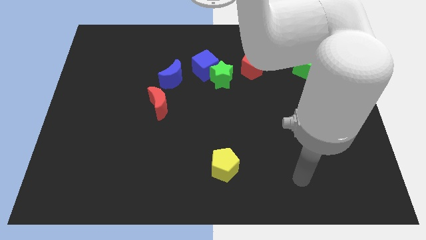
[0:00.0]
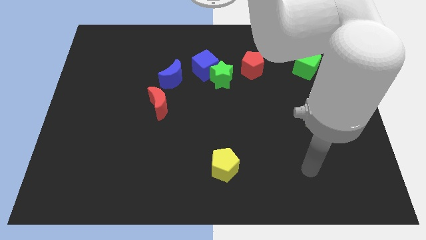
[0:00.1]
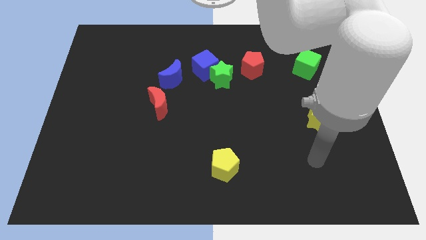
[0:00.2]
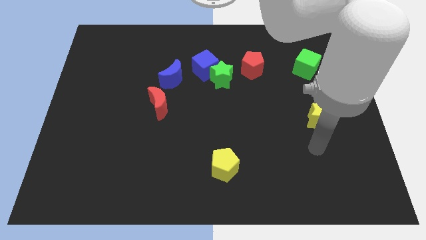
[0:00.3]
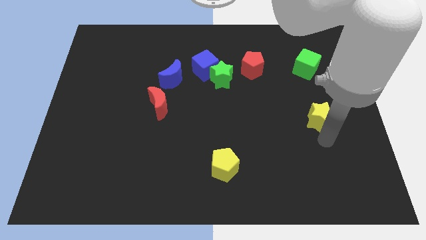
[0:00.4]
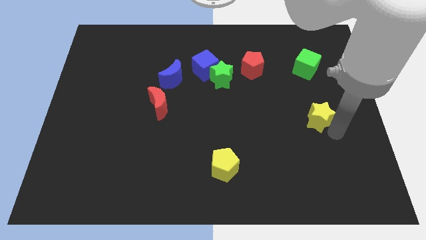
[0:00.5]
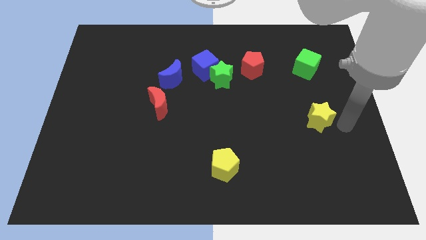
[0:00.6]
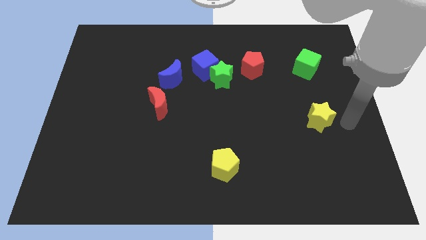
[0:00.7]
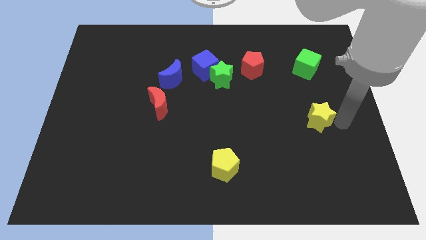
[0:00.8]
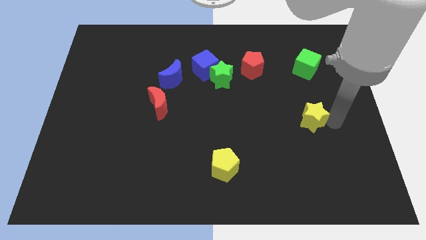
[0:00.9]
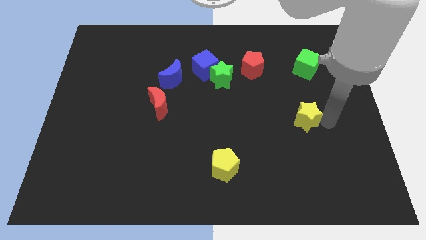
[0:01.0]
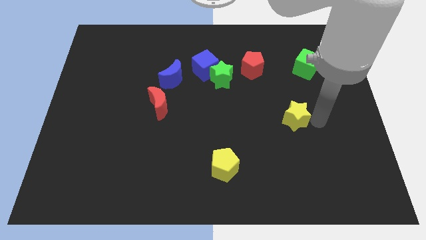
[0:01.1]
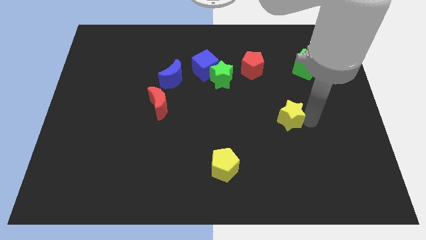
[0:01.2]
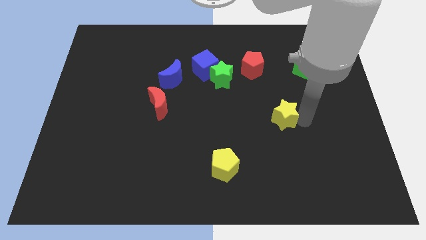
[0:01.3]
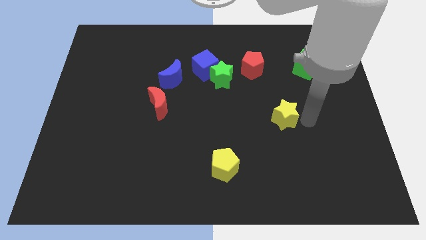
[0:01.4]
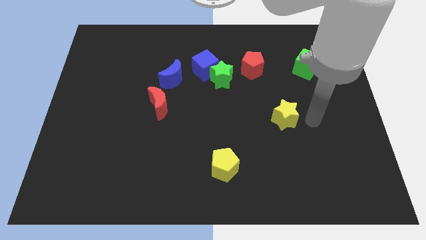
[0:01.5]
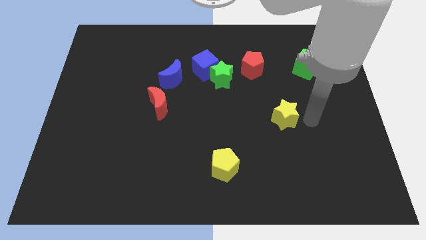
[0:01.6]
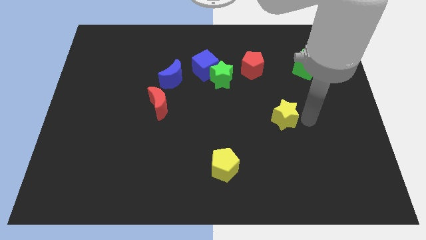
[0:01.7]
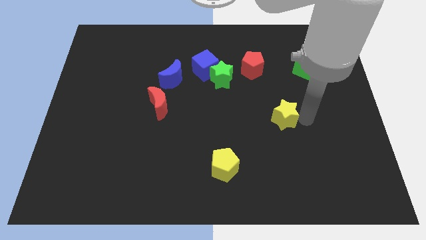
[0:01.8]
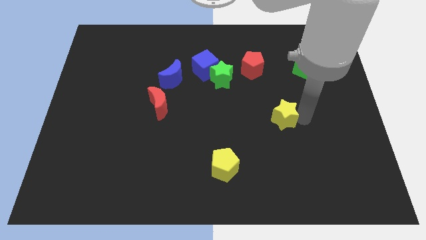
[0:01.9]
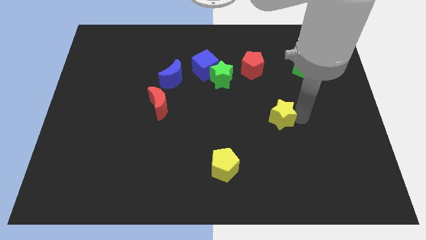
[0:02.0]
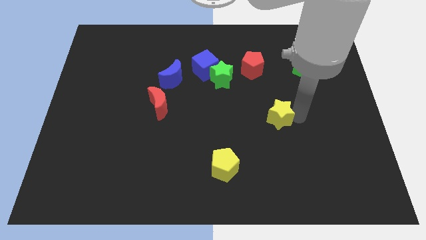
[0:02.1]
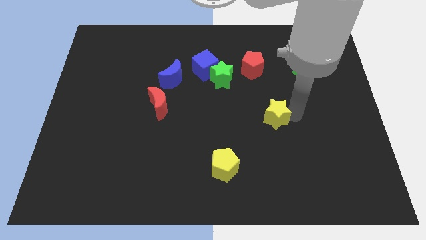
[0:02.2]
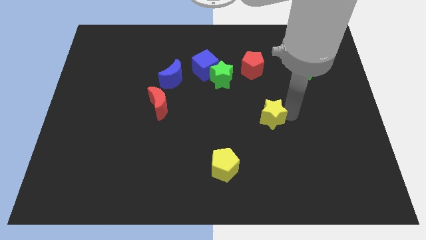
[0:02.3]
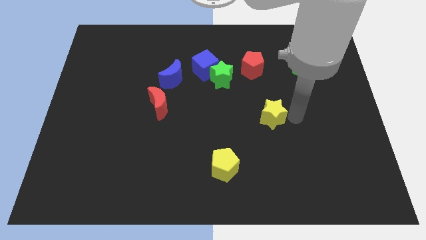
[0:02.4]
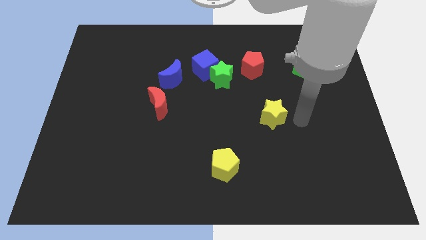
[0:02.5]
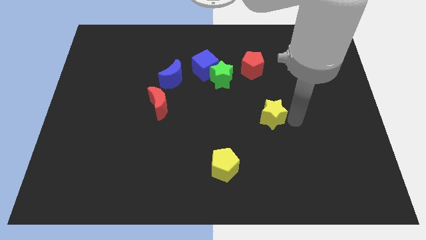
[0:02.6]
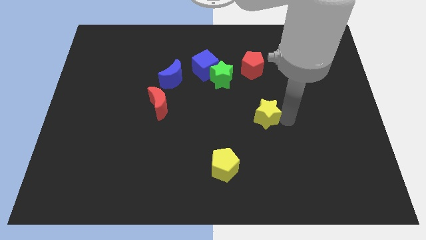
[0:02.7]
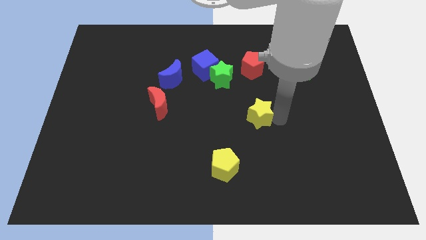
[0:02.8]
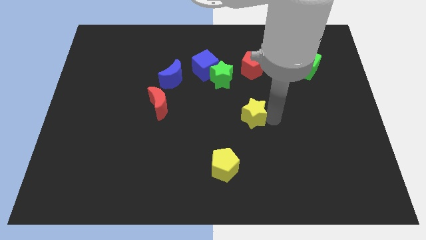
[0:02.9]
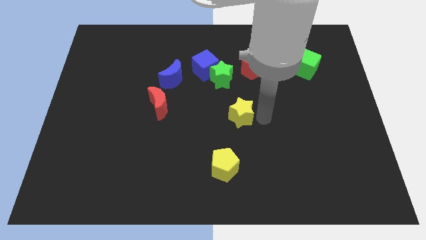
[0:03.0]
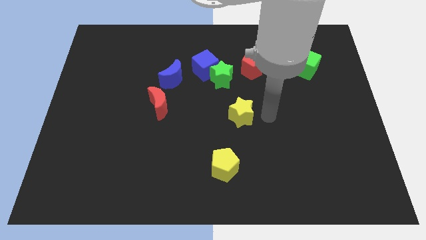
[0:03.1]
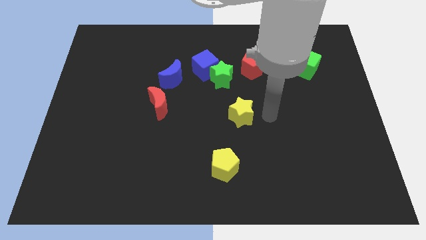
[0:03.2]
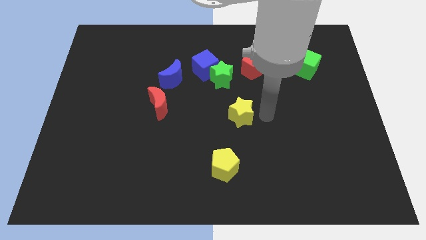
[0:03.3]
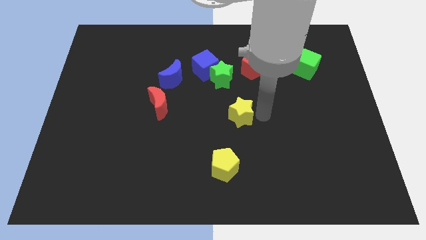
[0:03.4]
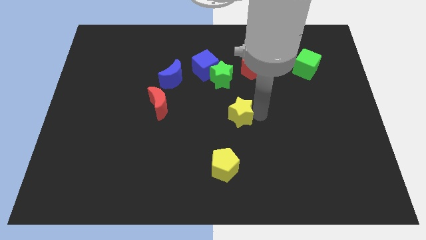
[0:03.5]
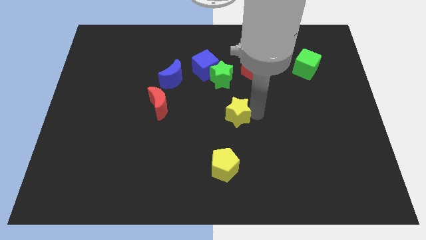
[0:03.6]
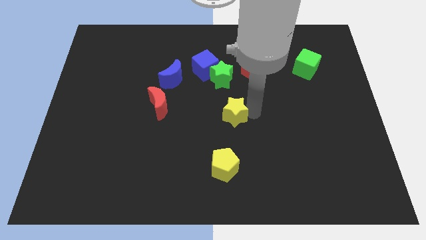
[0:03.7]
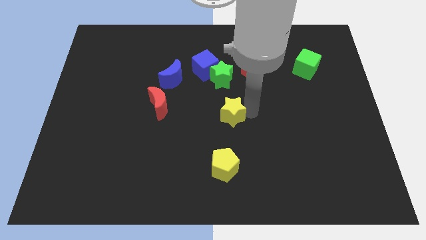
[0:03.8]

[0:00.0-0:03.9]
push the yellow star left

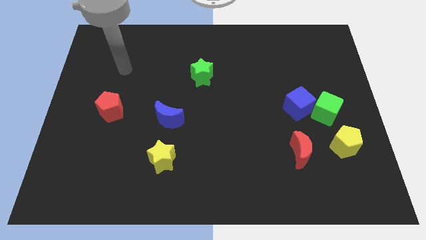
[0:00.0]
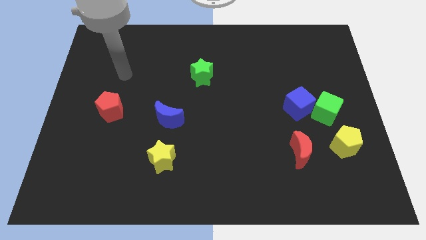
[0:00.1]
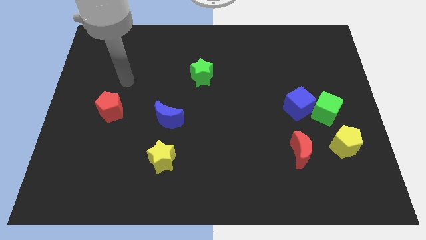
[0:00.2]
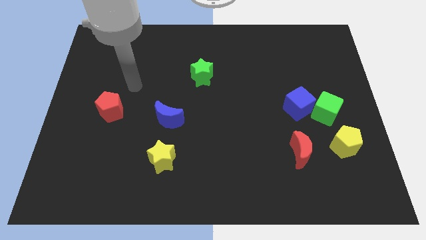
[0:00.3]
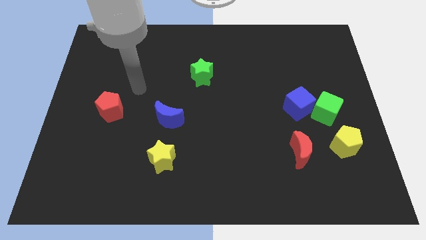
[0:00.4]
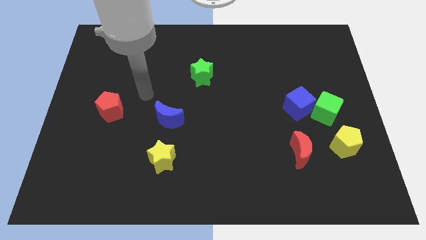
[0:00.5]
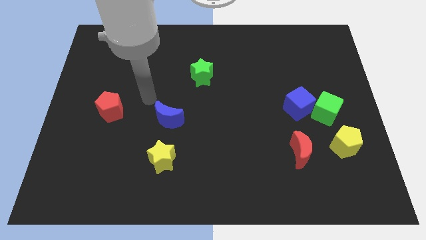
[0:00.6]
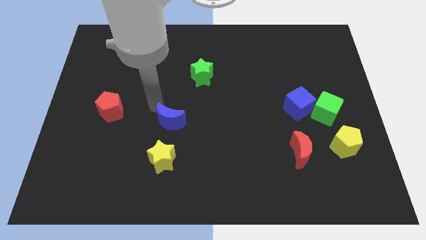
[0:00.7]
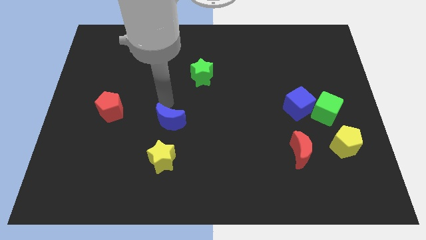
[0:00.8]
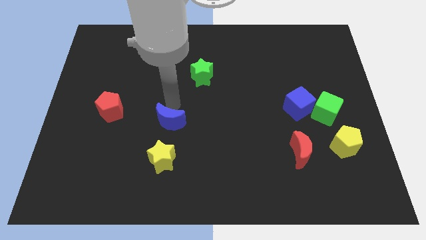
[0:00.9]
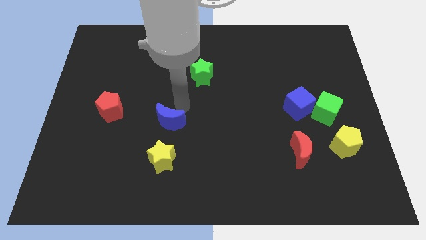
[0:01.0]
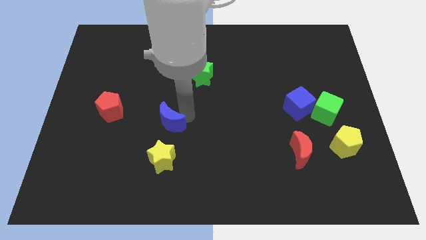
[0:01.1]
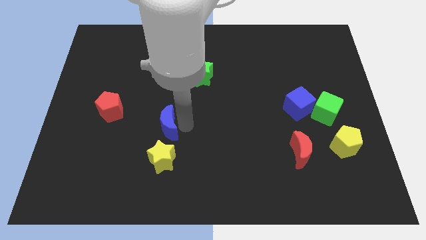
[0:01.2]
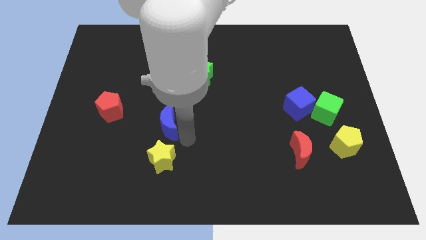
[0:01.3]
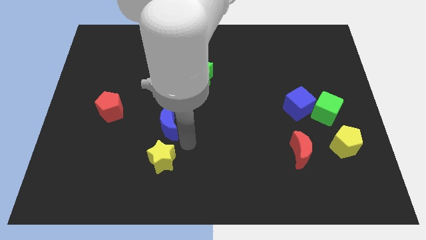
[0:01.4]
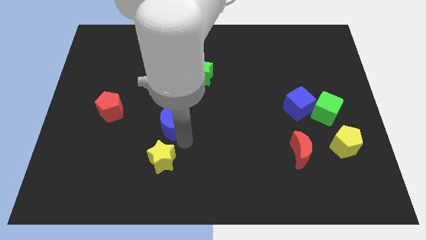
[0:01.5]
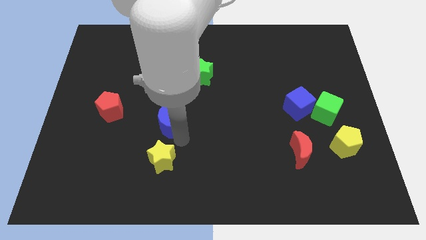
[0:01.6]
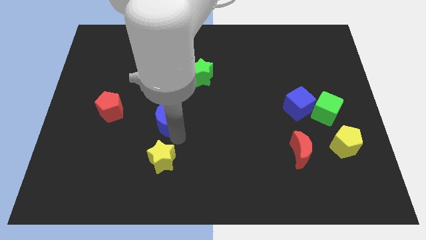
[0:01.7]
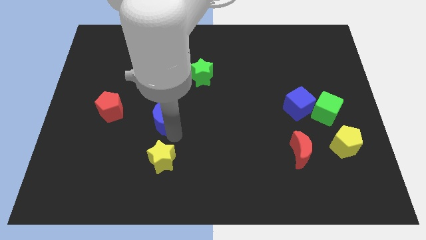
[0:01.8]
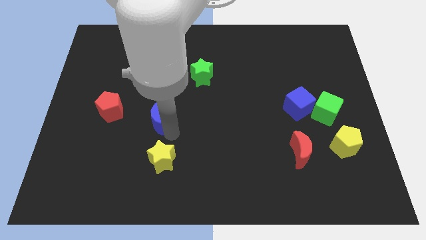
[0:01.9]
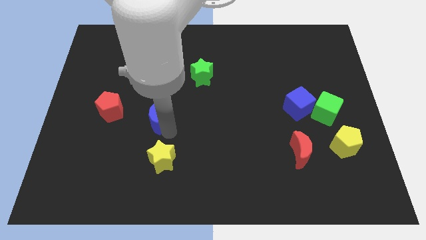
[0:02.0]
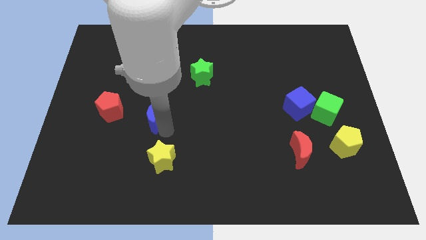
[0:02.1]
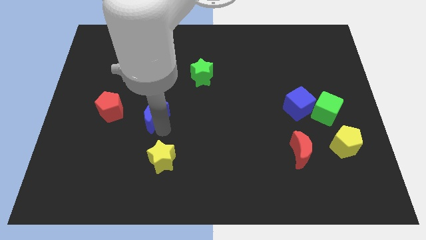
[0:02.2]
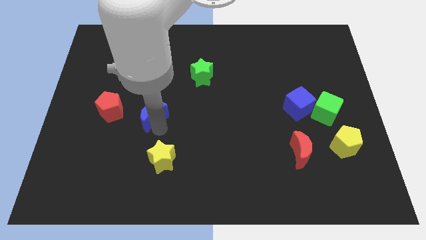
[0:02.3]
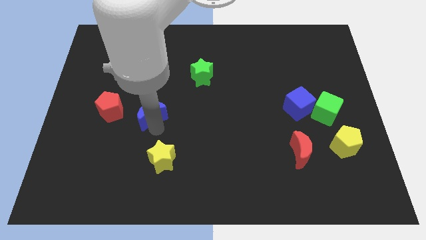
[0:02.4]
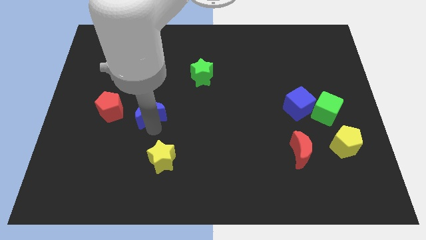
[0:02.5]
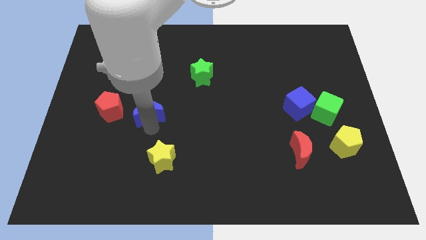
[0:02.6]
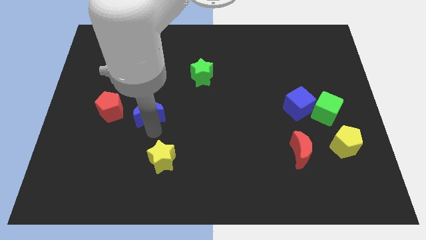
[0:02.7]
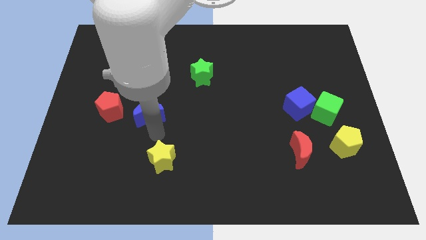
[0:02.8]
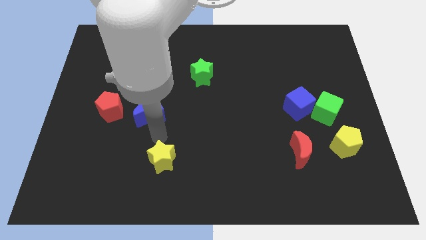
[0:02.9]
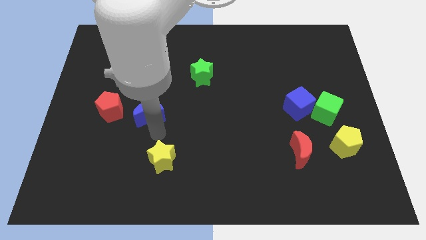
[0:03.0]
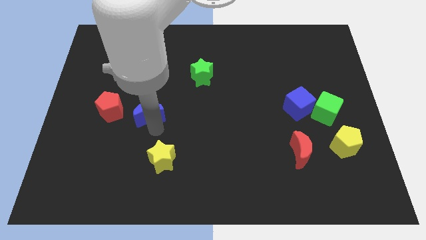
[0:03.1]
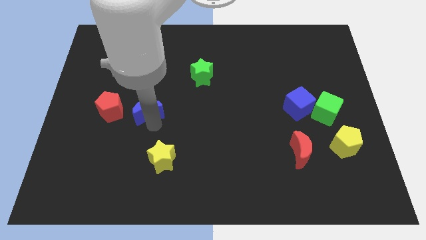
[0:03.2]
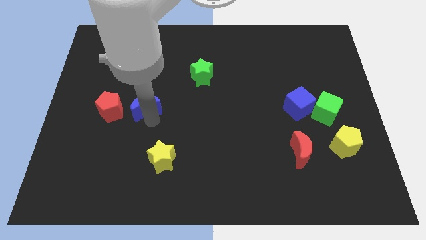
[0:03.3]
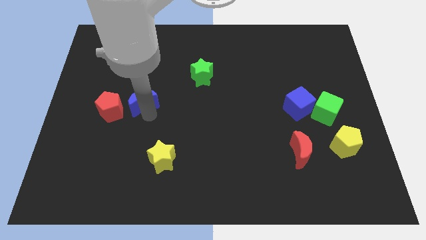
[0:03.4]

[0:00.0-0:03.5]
move the blue moon diagonally up and left somewhat

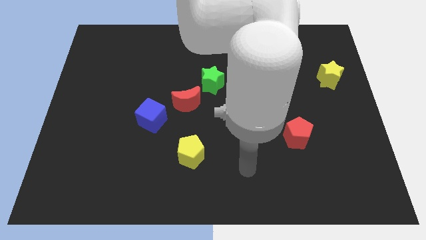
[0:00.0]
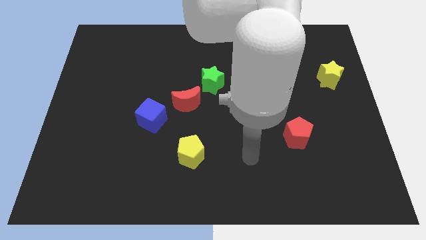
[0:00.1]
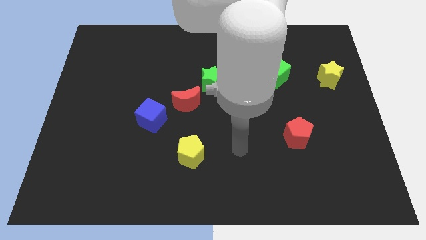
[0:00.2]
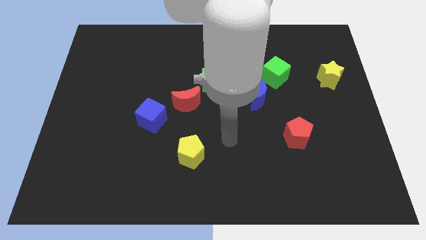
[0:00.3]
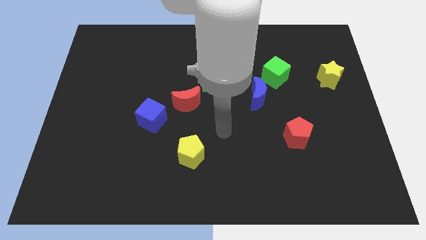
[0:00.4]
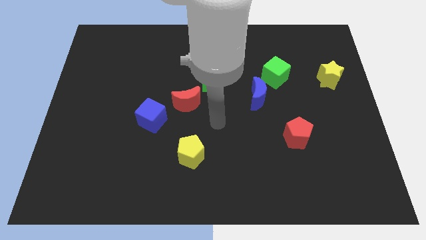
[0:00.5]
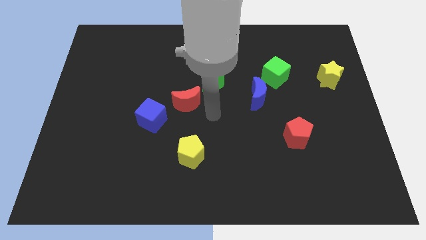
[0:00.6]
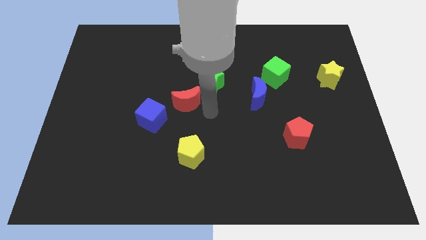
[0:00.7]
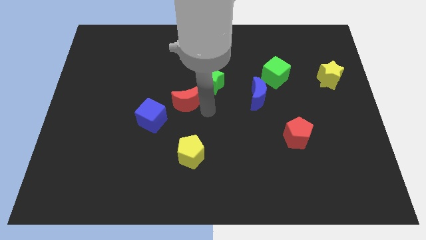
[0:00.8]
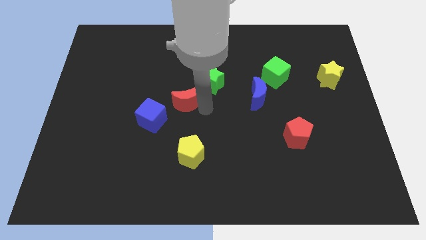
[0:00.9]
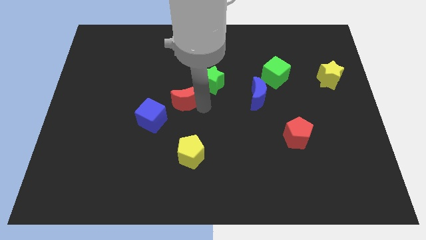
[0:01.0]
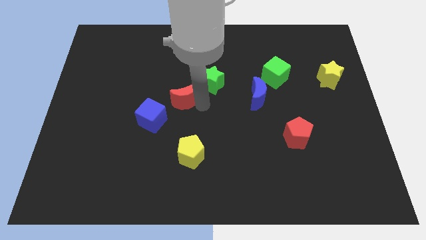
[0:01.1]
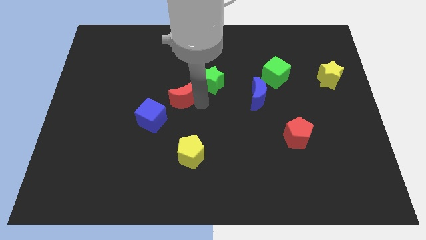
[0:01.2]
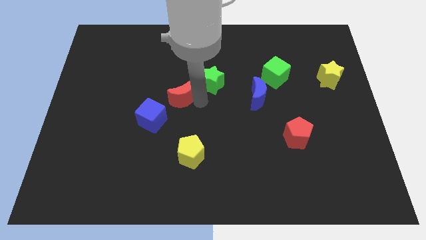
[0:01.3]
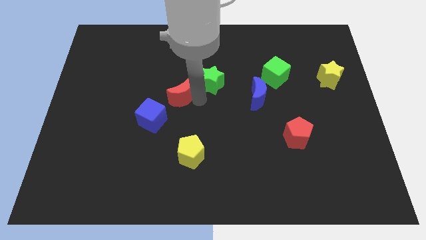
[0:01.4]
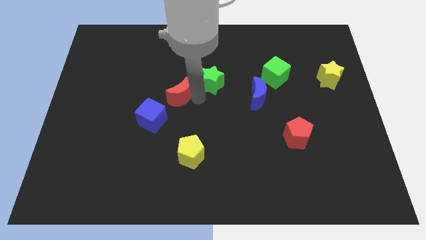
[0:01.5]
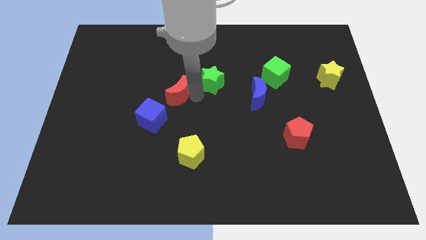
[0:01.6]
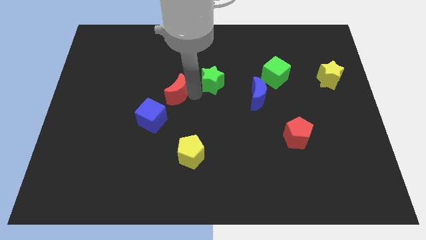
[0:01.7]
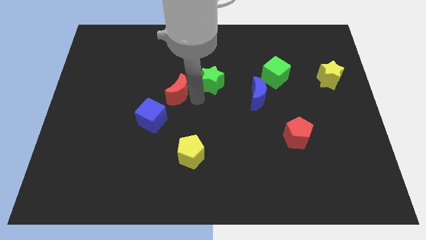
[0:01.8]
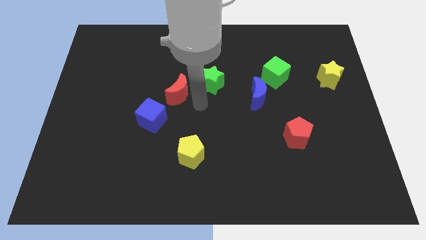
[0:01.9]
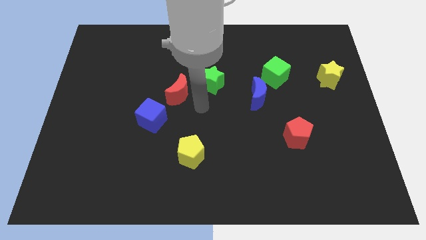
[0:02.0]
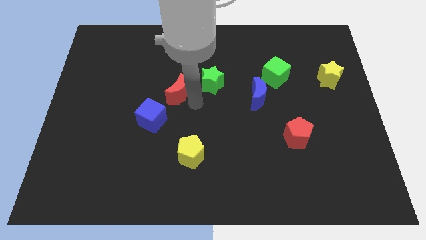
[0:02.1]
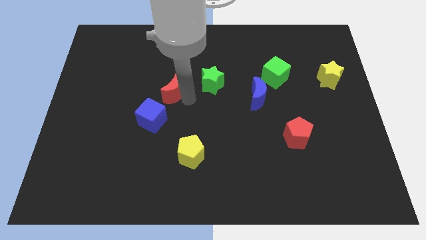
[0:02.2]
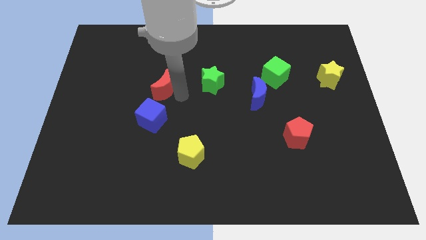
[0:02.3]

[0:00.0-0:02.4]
push the red moon slightly upwards and then left
